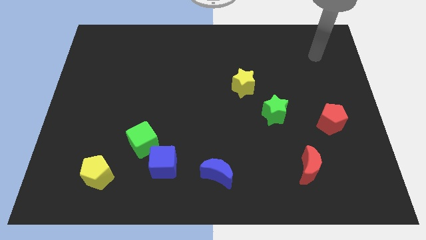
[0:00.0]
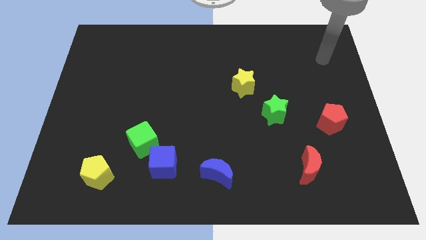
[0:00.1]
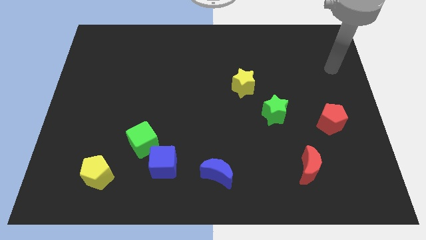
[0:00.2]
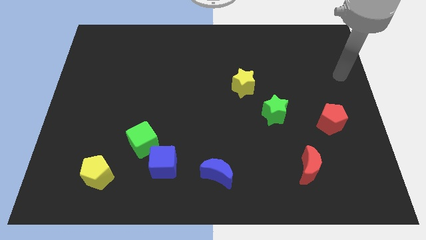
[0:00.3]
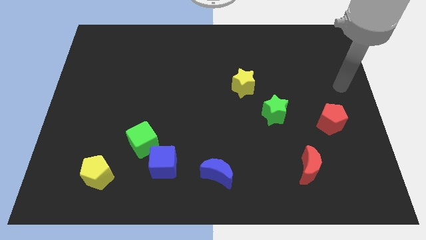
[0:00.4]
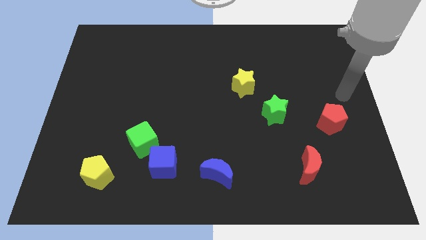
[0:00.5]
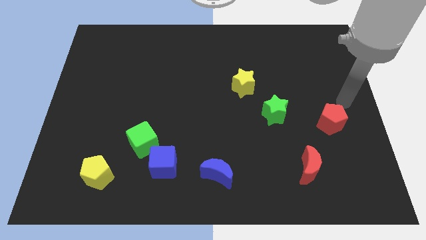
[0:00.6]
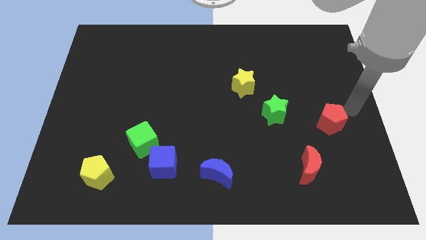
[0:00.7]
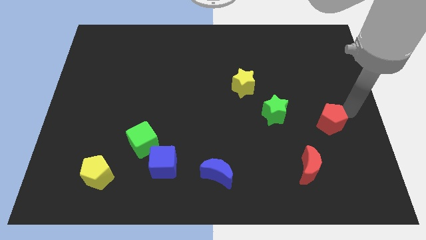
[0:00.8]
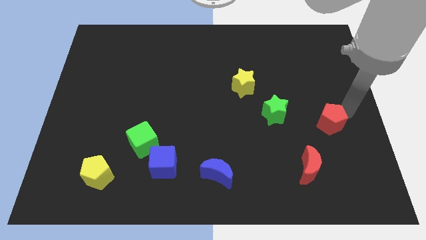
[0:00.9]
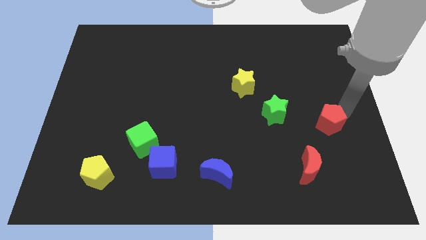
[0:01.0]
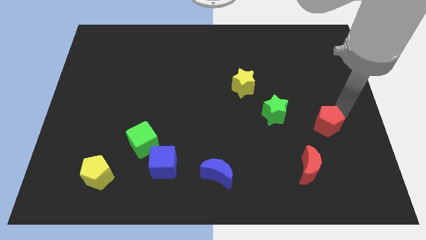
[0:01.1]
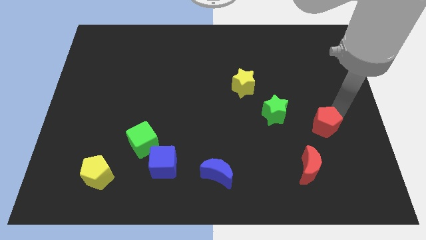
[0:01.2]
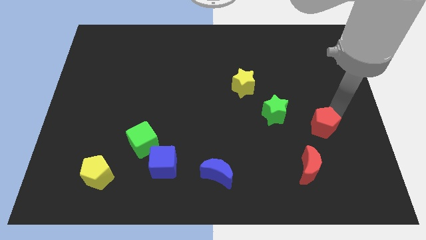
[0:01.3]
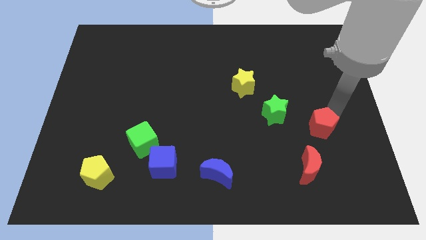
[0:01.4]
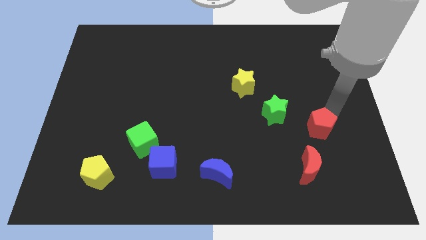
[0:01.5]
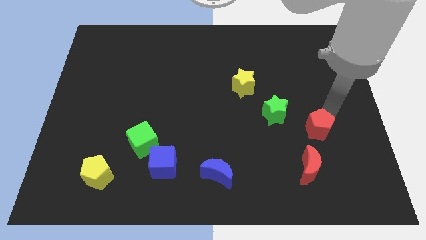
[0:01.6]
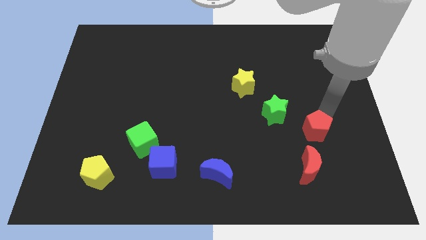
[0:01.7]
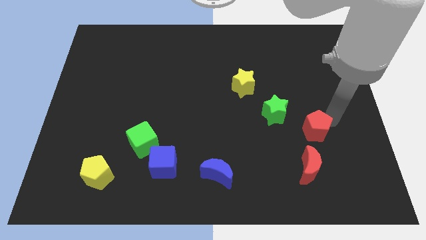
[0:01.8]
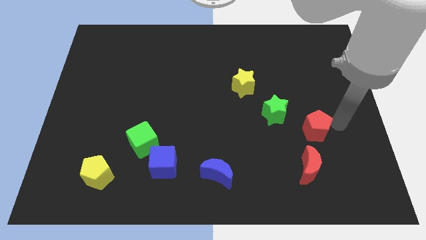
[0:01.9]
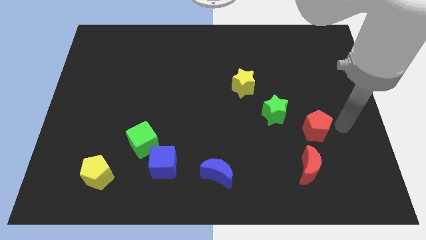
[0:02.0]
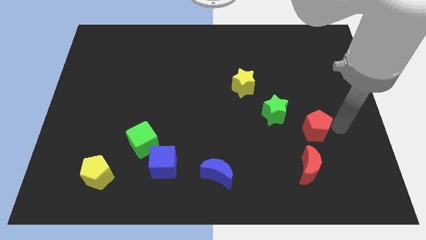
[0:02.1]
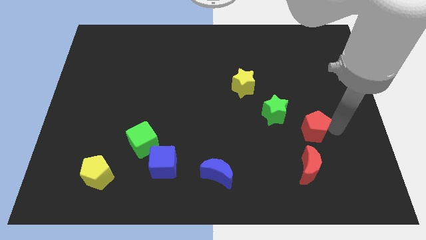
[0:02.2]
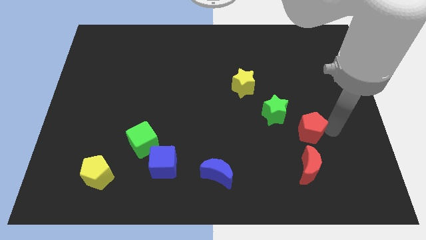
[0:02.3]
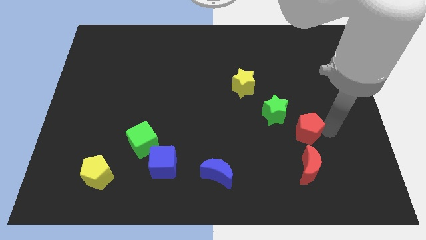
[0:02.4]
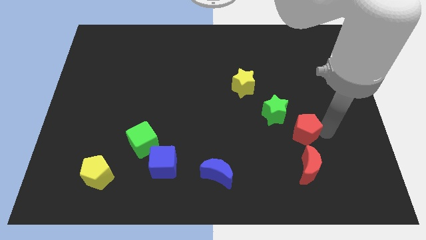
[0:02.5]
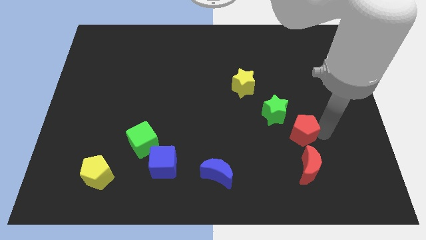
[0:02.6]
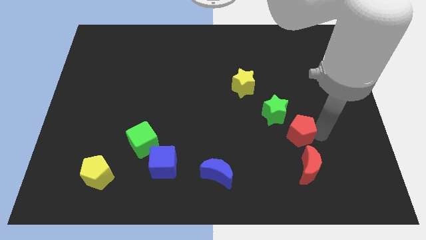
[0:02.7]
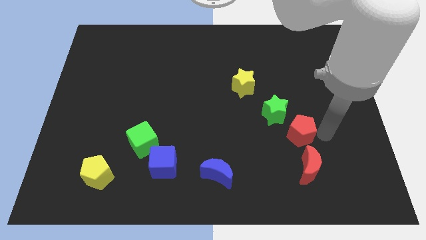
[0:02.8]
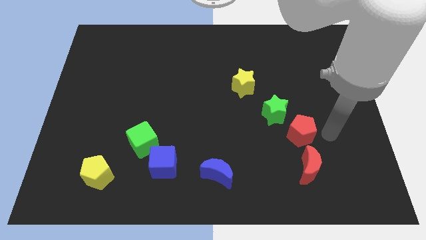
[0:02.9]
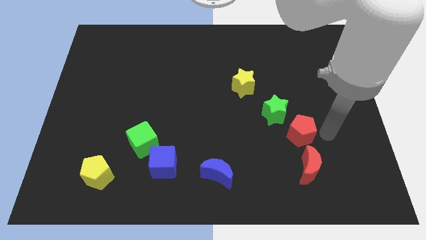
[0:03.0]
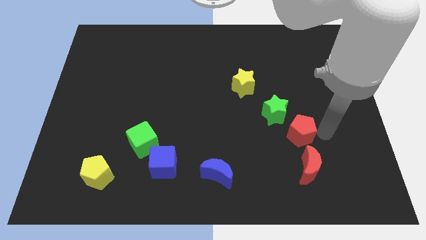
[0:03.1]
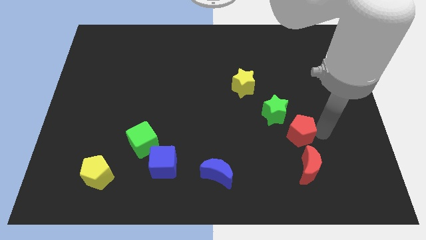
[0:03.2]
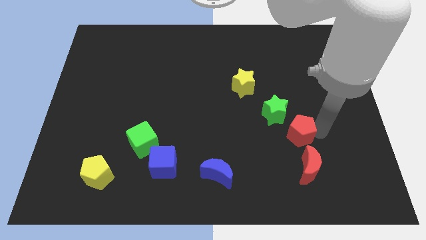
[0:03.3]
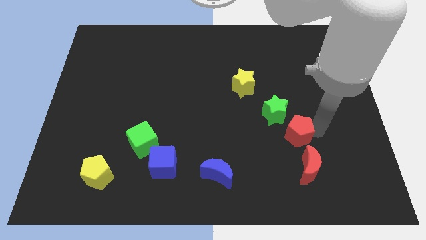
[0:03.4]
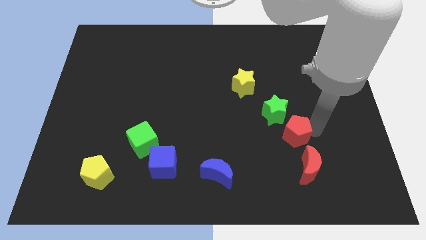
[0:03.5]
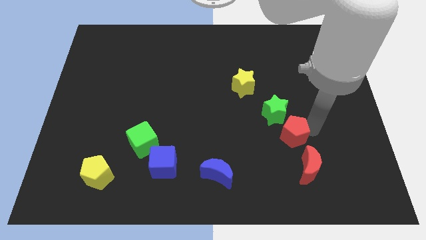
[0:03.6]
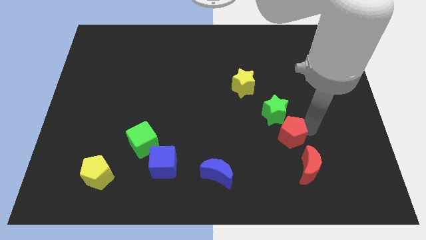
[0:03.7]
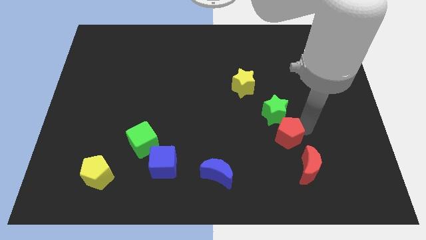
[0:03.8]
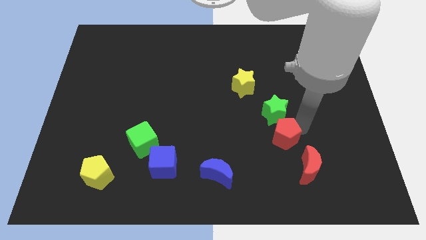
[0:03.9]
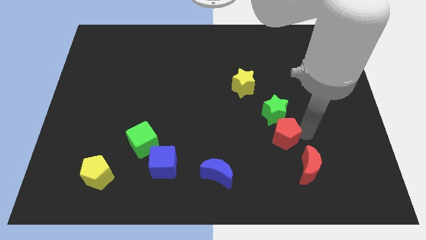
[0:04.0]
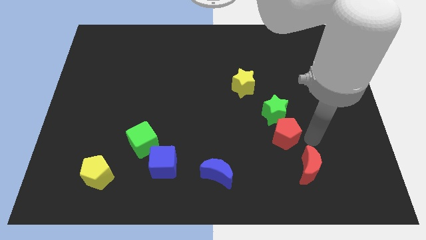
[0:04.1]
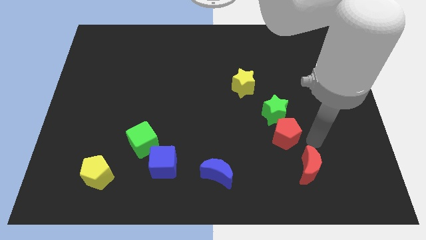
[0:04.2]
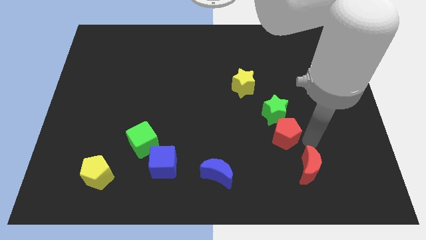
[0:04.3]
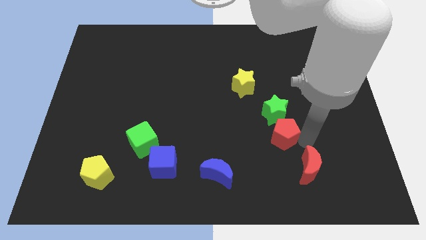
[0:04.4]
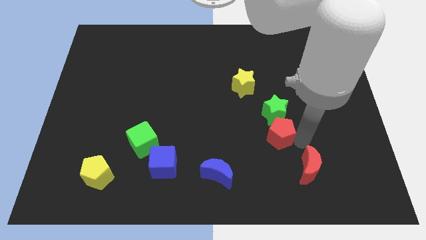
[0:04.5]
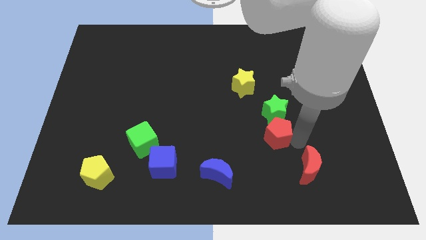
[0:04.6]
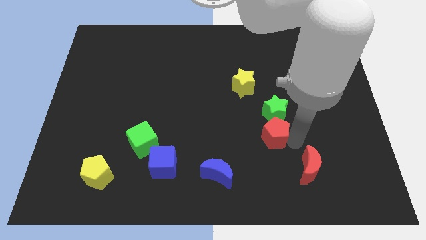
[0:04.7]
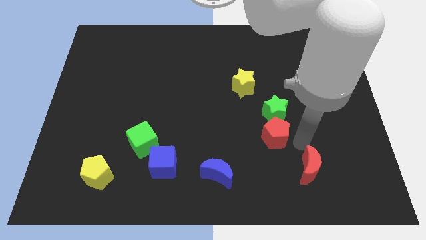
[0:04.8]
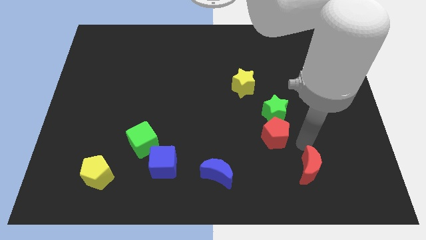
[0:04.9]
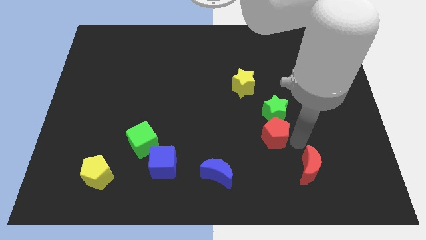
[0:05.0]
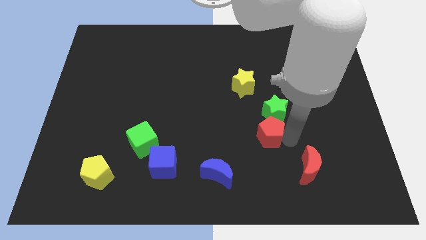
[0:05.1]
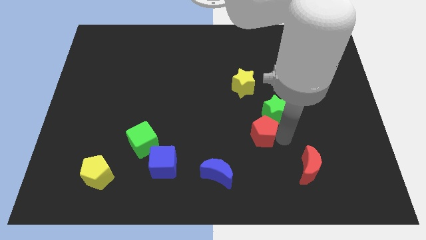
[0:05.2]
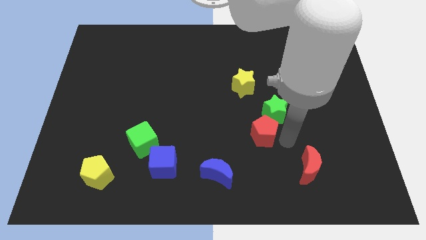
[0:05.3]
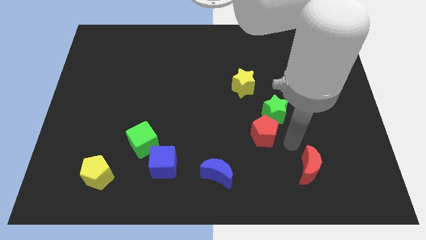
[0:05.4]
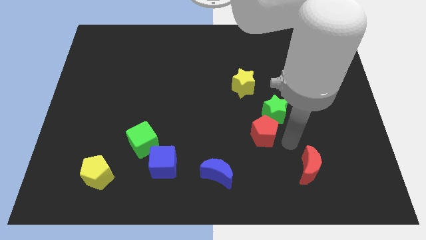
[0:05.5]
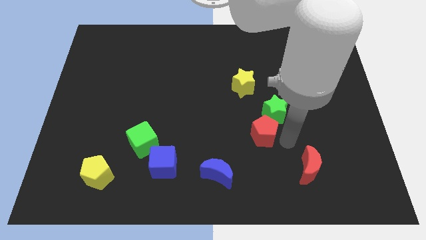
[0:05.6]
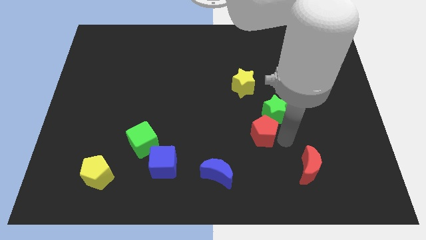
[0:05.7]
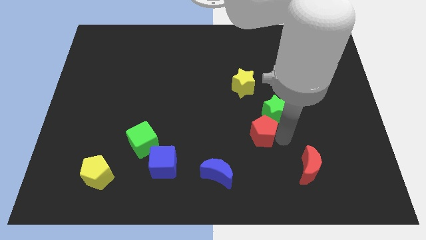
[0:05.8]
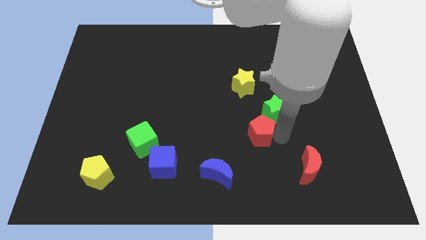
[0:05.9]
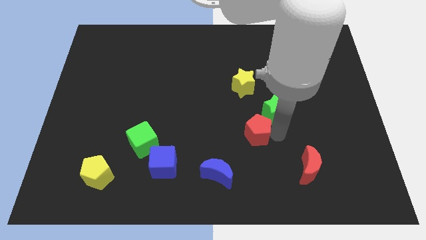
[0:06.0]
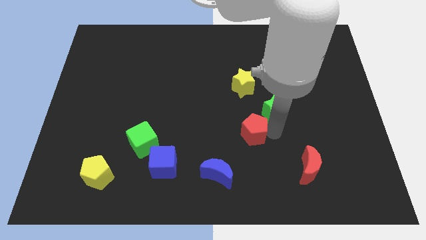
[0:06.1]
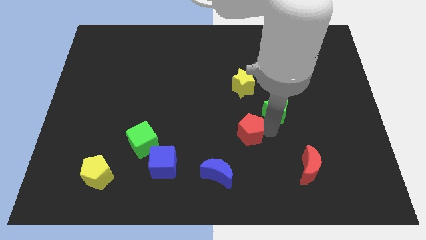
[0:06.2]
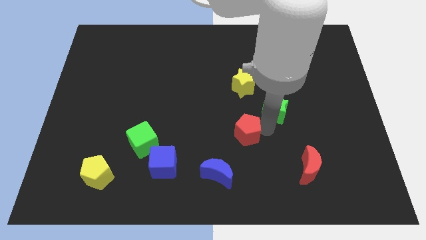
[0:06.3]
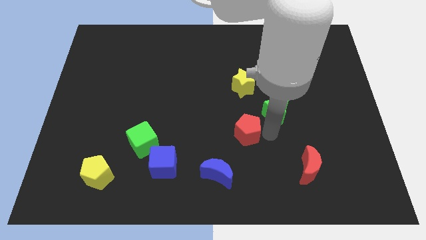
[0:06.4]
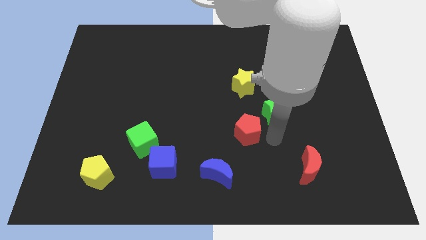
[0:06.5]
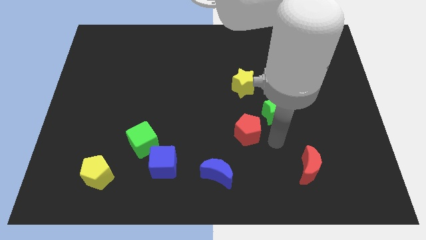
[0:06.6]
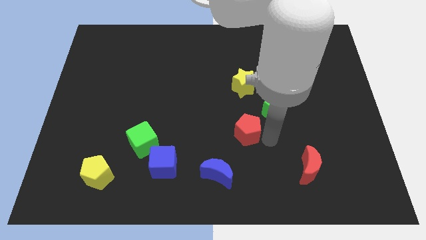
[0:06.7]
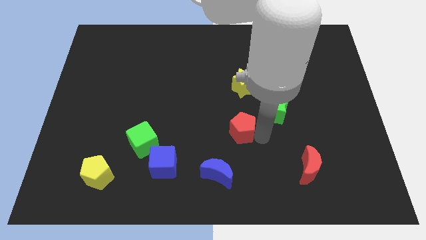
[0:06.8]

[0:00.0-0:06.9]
slide the red pentagon left

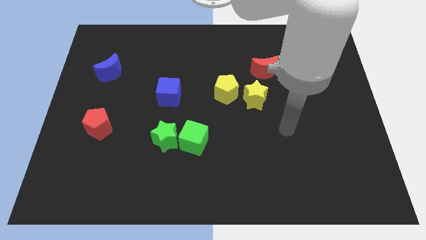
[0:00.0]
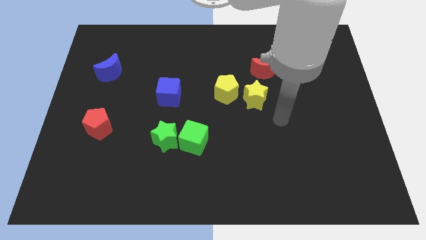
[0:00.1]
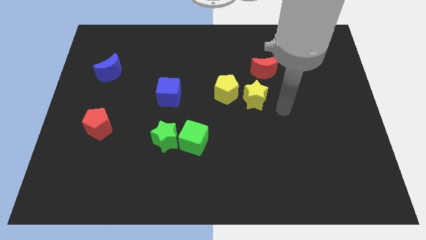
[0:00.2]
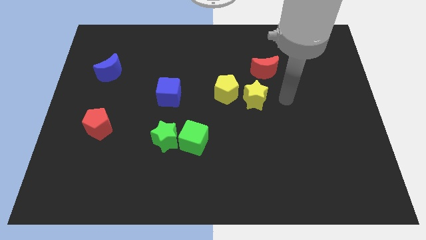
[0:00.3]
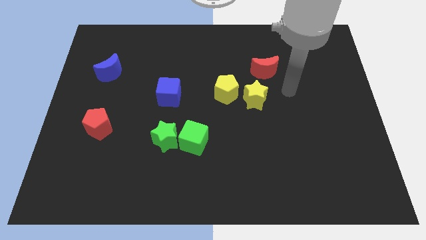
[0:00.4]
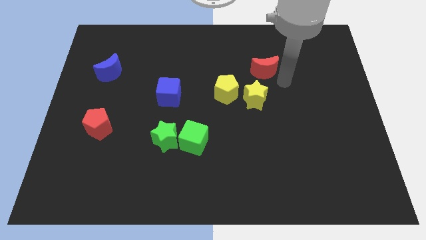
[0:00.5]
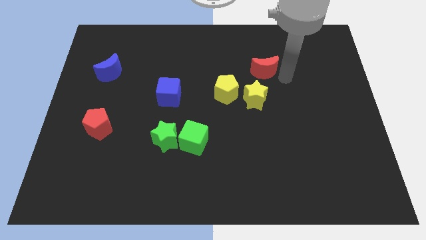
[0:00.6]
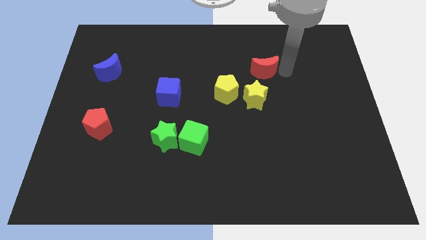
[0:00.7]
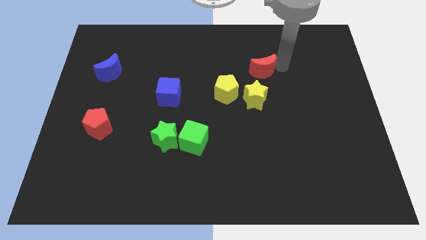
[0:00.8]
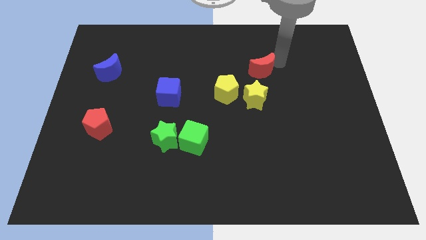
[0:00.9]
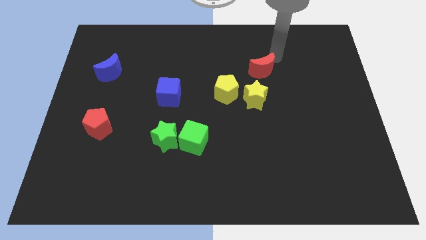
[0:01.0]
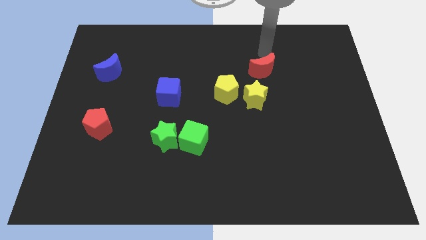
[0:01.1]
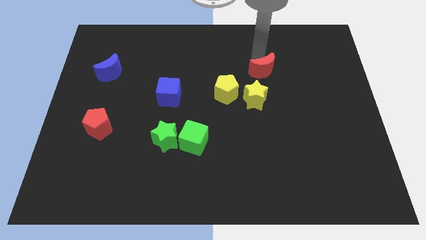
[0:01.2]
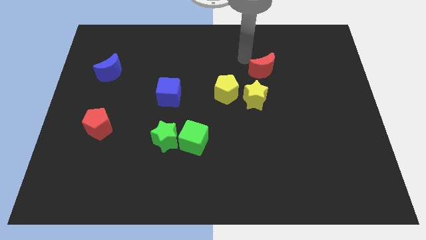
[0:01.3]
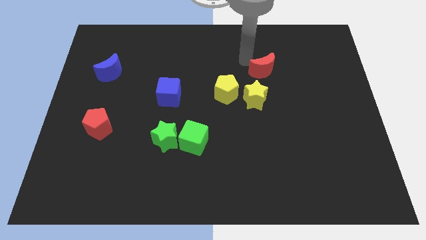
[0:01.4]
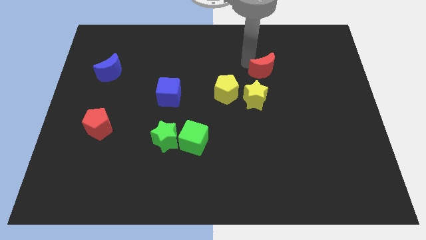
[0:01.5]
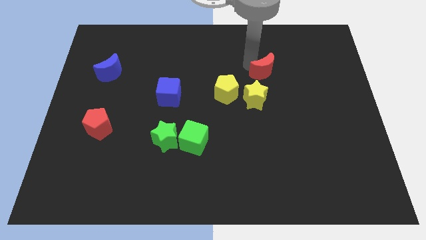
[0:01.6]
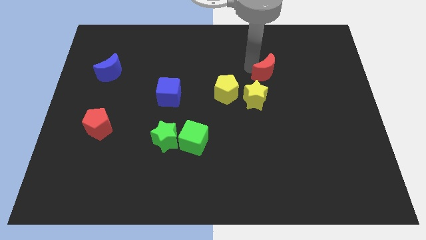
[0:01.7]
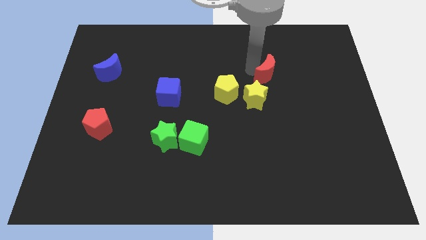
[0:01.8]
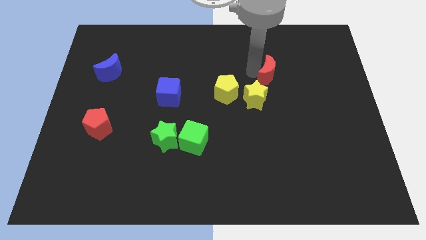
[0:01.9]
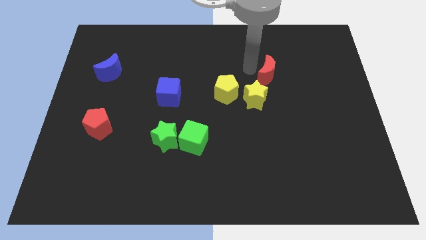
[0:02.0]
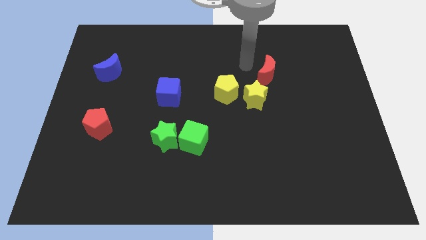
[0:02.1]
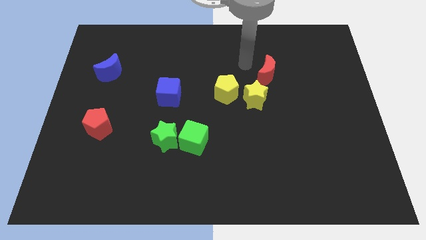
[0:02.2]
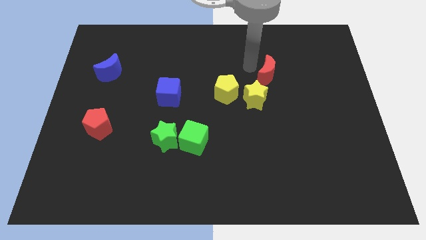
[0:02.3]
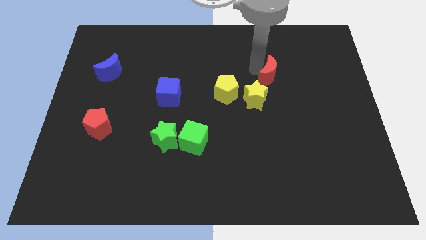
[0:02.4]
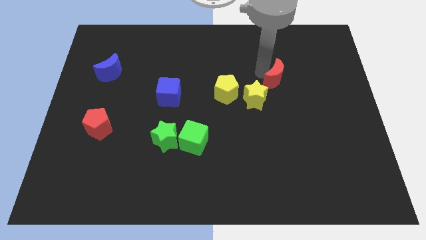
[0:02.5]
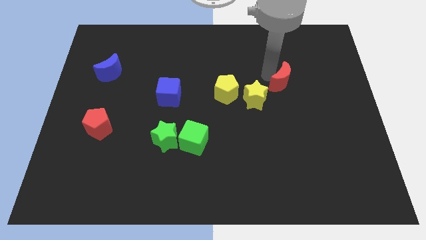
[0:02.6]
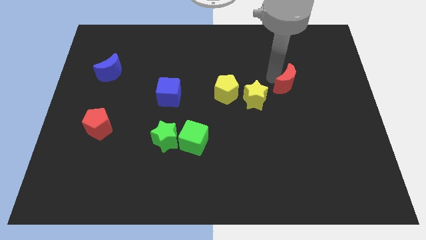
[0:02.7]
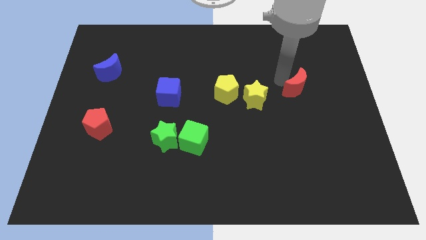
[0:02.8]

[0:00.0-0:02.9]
move the red moon somewhat down and to the right diagonally
